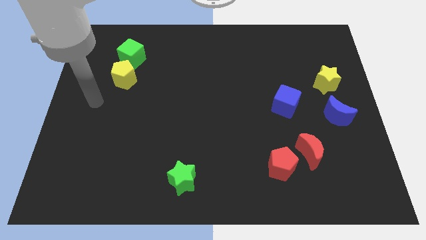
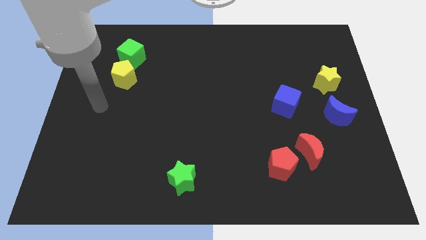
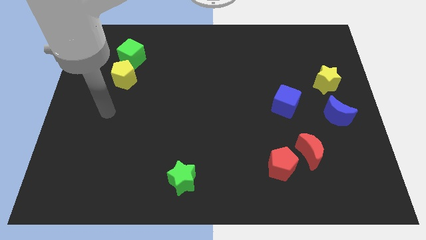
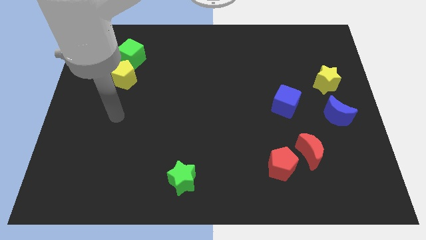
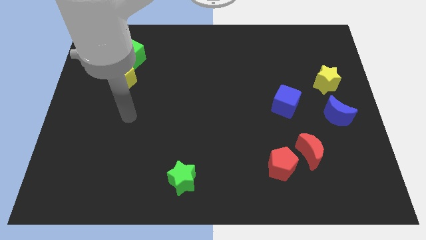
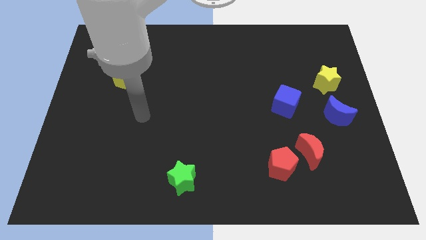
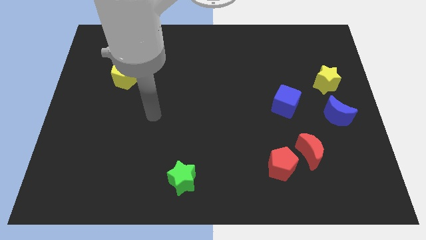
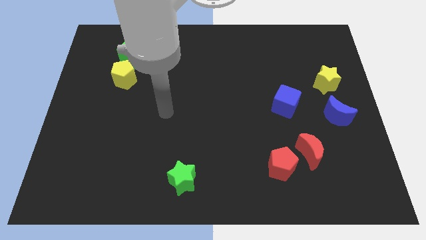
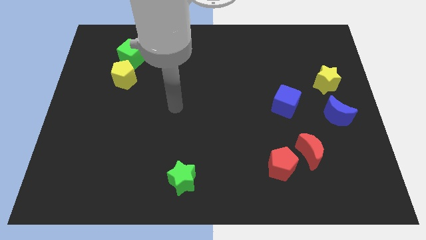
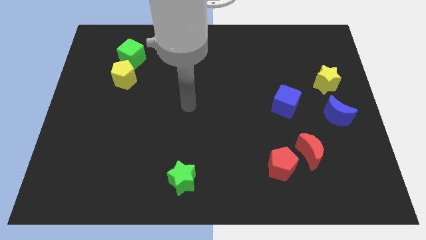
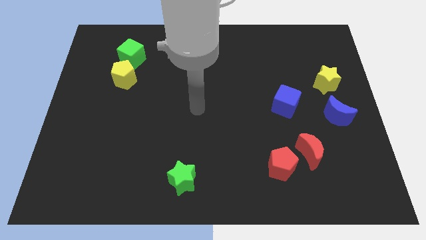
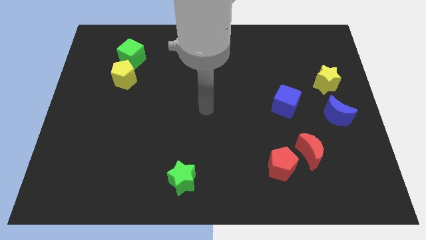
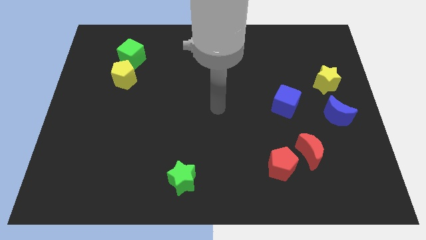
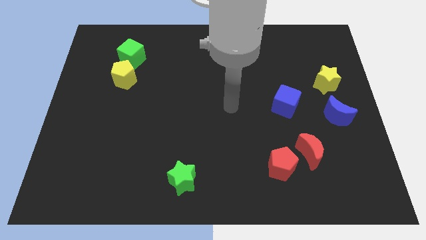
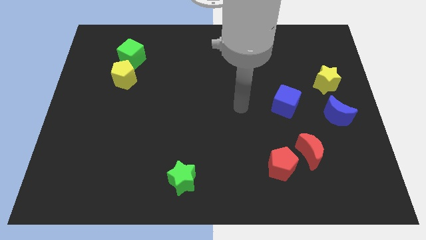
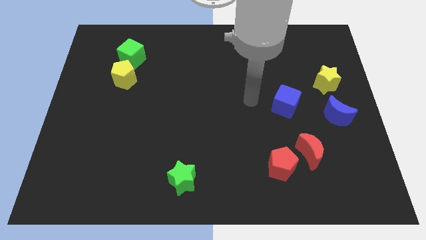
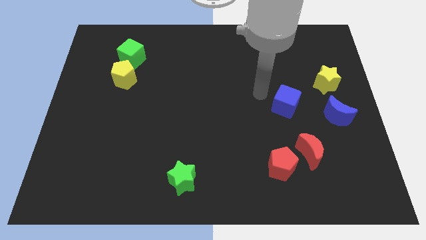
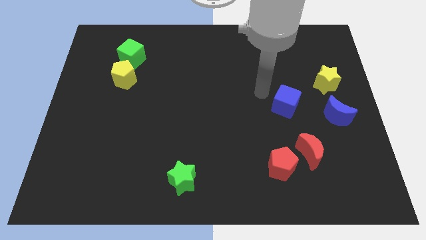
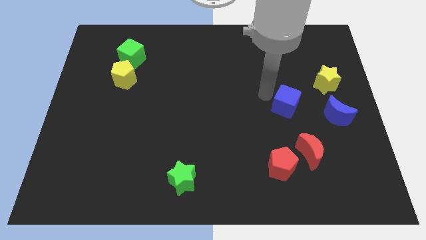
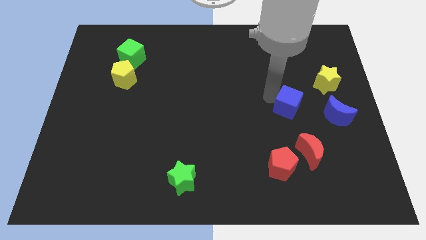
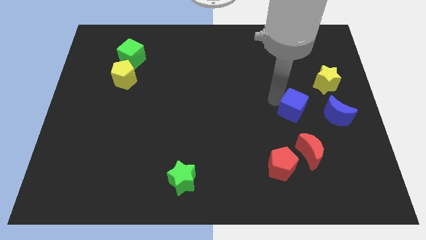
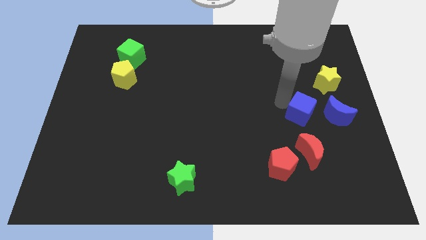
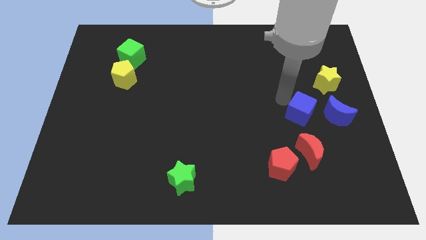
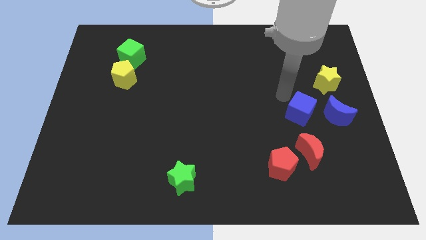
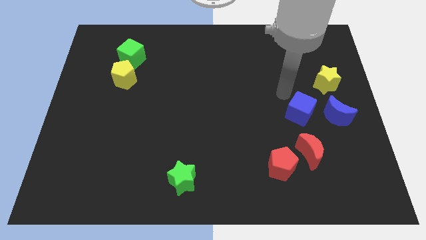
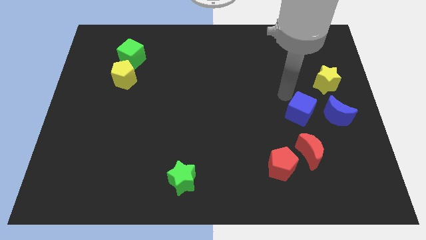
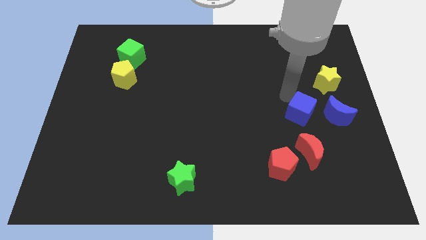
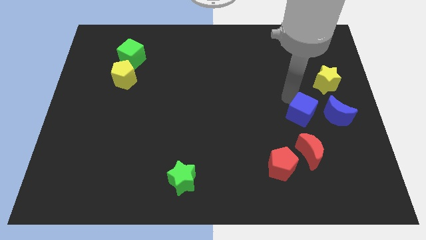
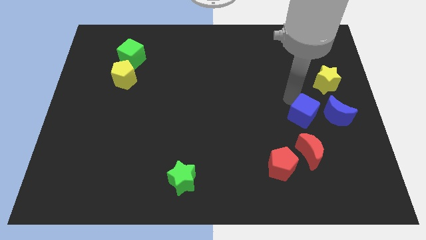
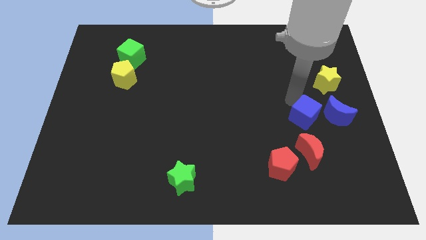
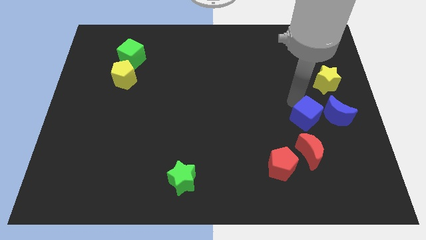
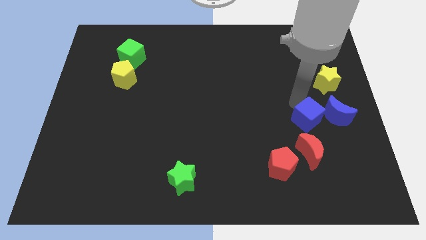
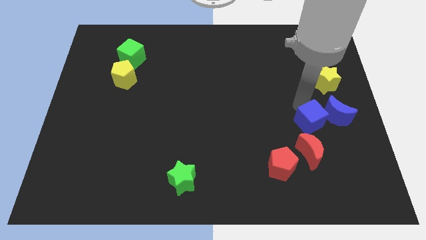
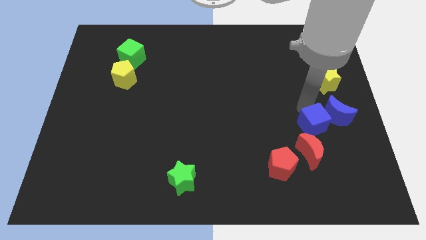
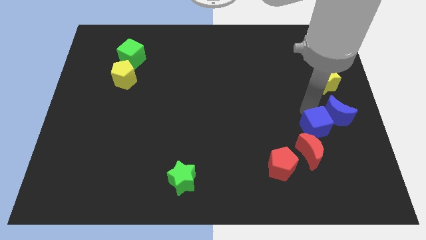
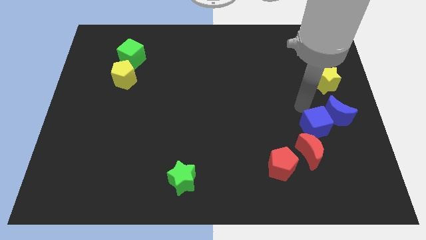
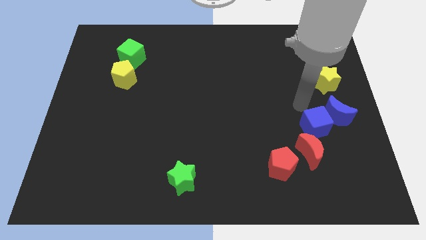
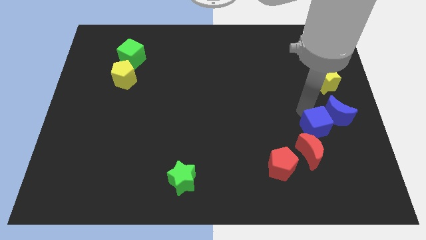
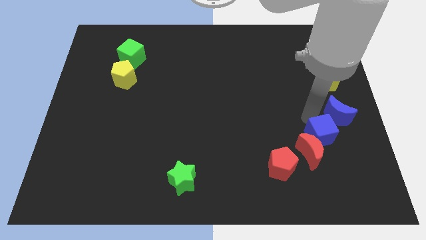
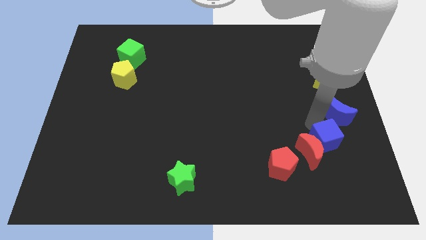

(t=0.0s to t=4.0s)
push the blue cube down a little

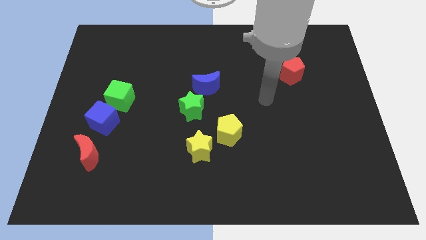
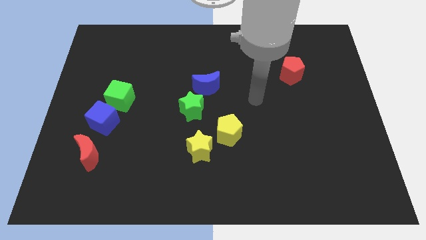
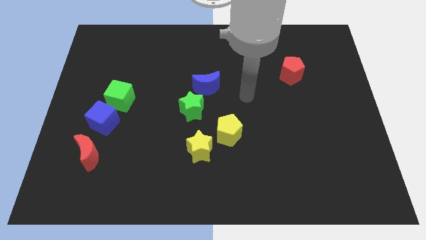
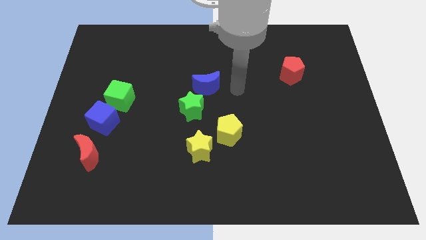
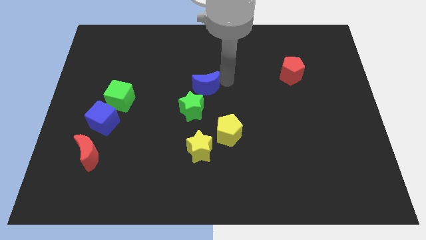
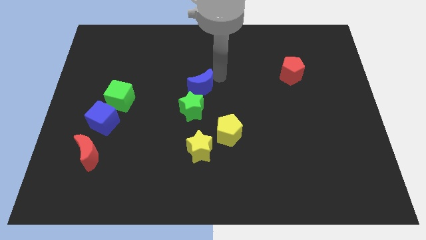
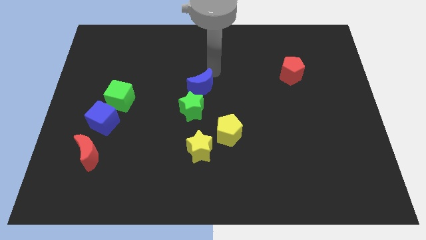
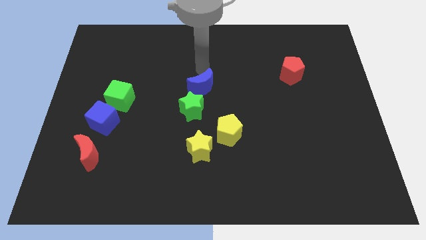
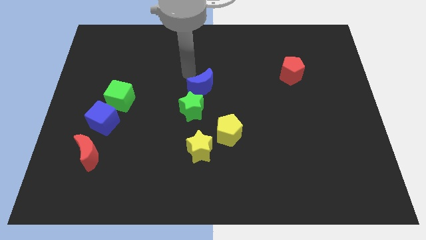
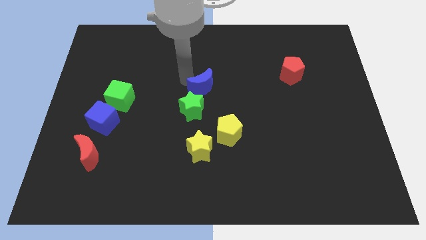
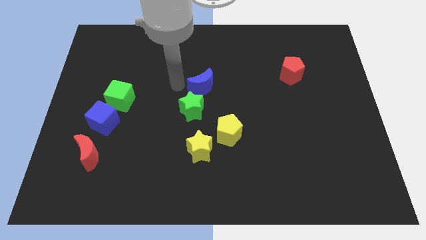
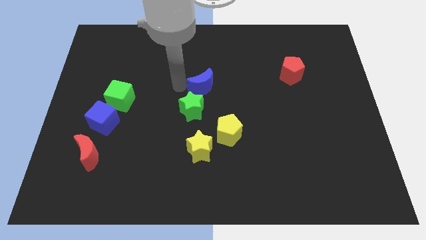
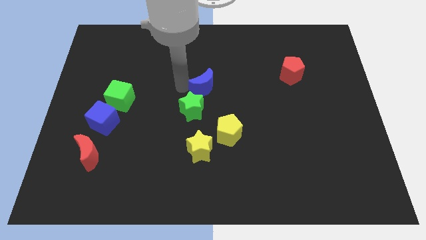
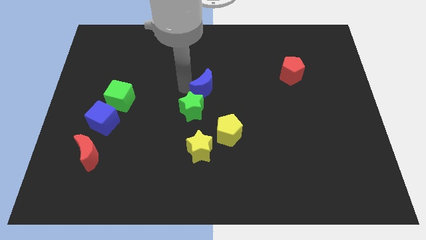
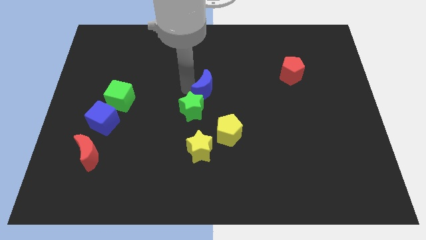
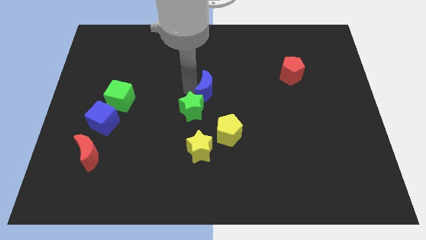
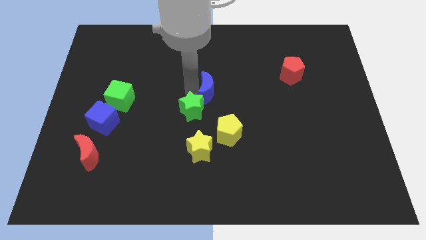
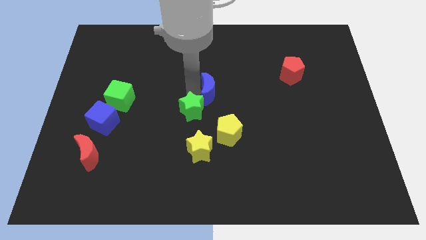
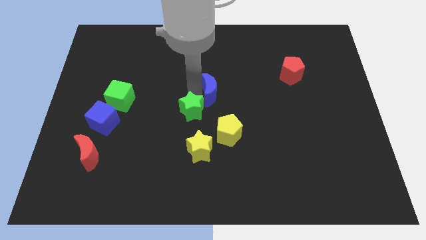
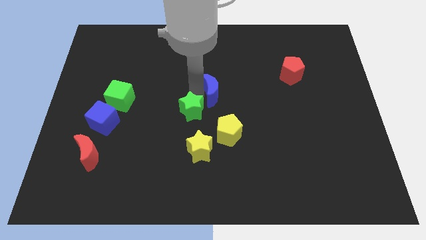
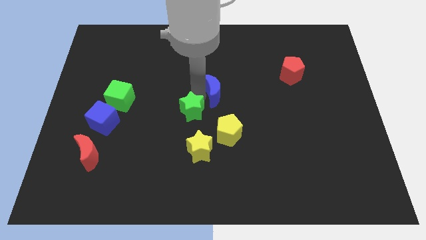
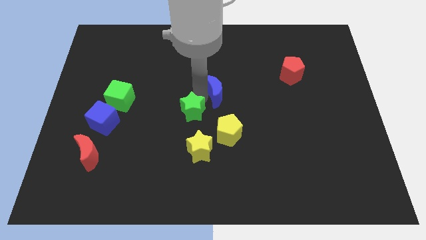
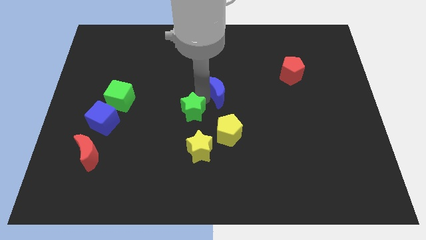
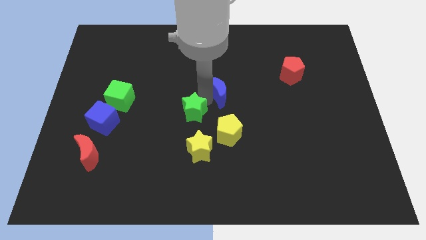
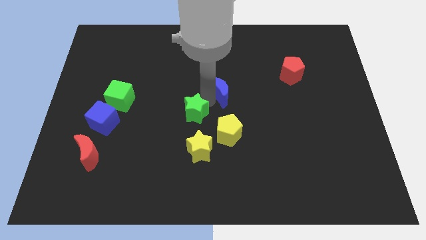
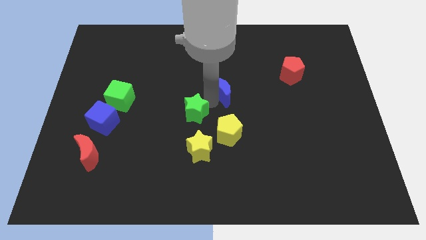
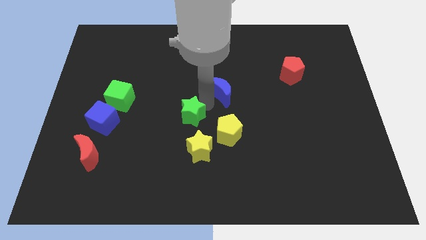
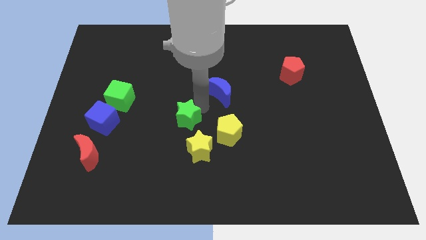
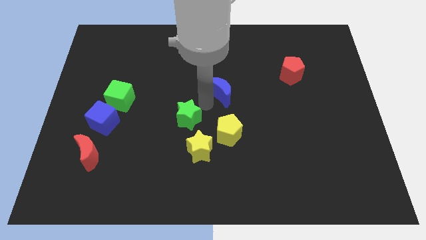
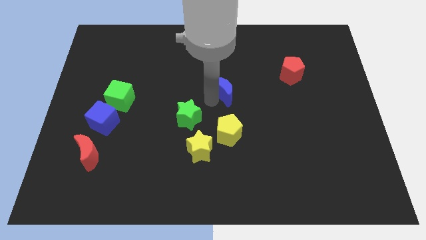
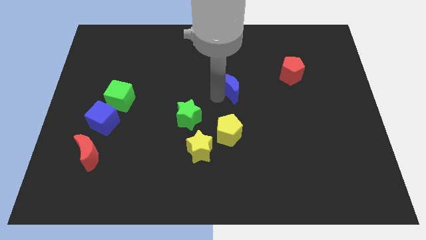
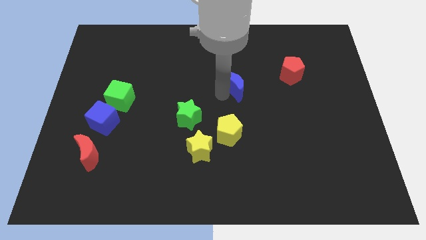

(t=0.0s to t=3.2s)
push the blue moon right somewhat

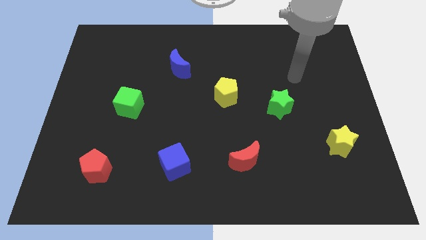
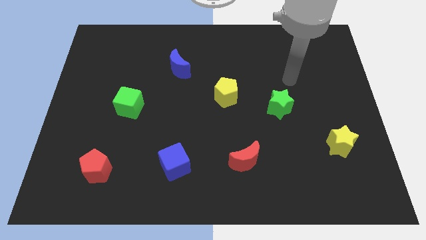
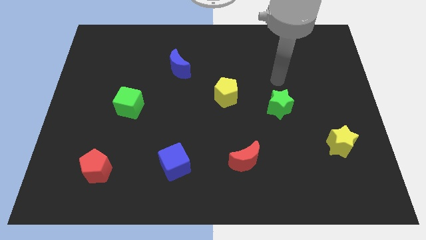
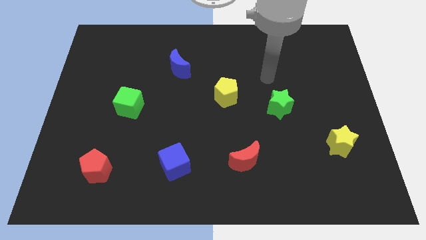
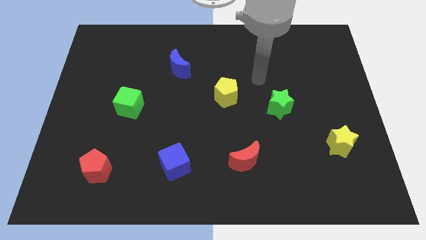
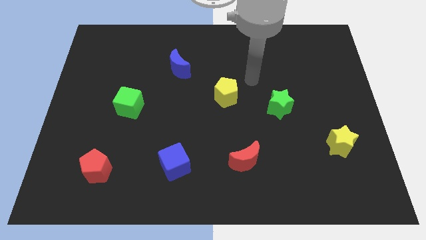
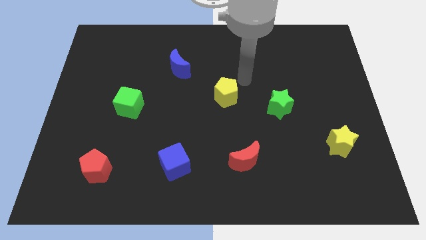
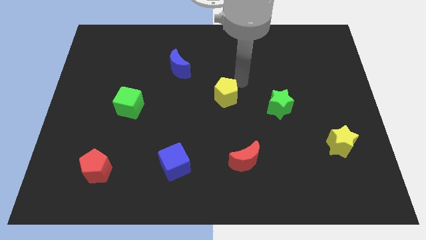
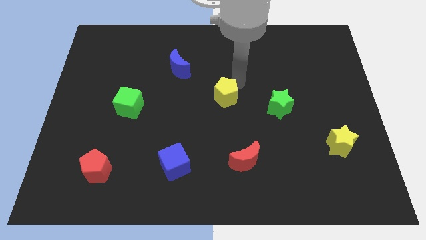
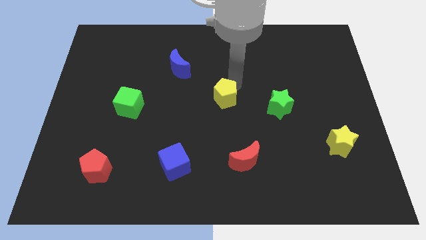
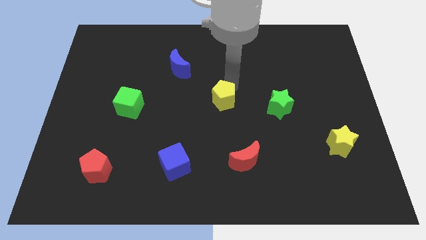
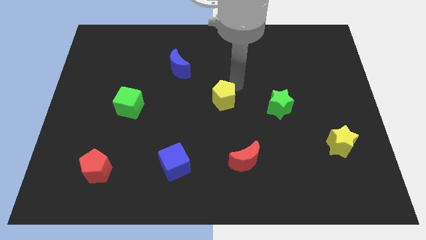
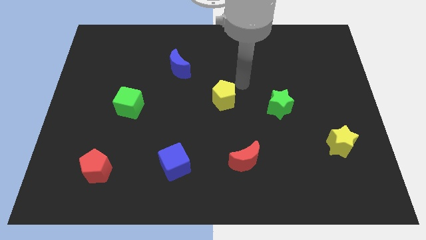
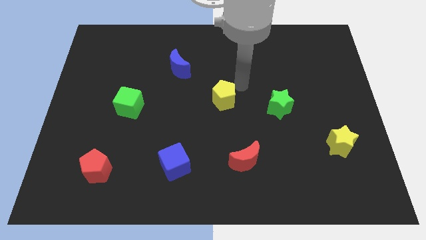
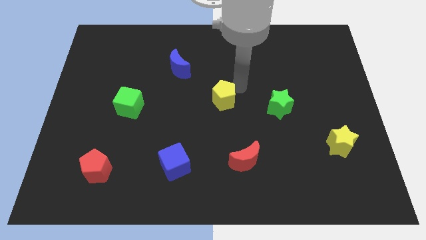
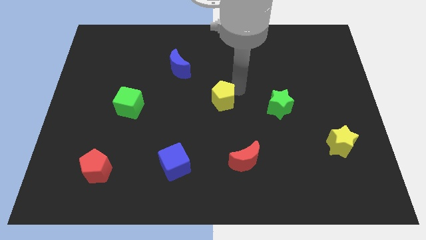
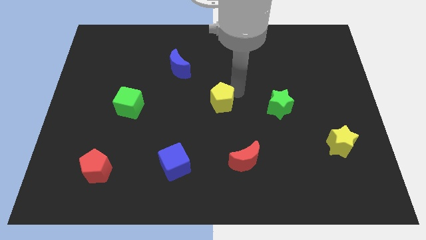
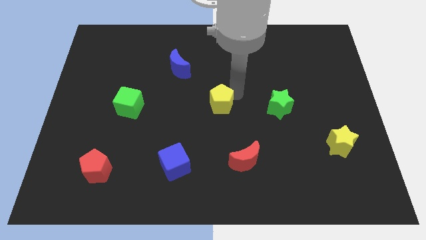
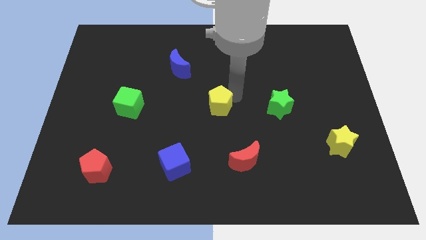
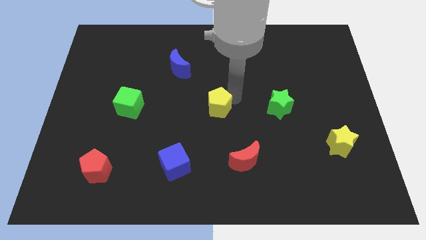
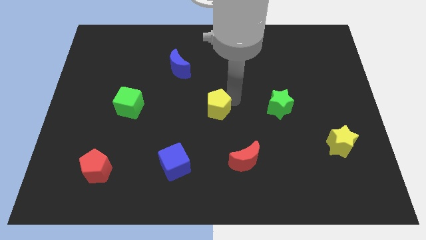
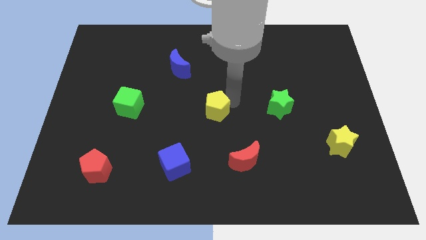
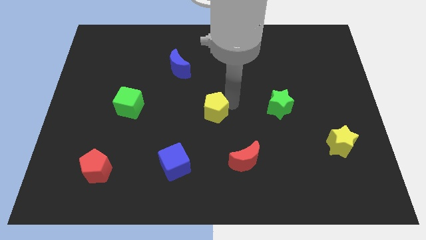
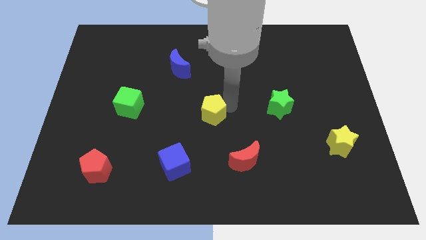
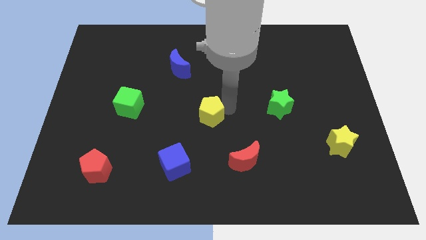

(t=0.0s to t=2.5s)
slide the yellow pentagon a little downwards and to the left
